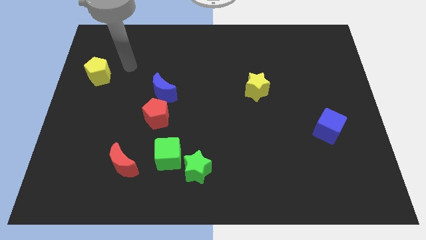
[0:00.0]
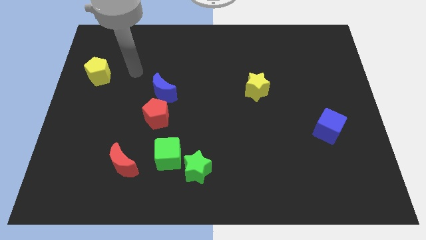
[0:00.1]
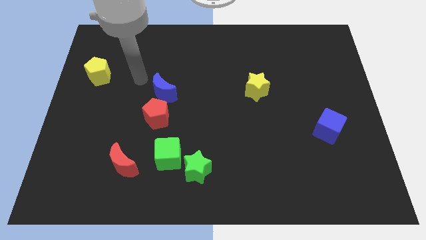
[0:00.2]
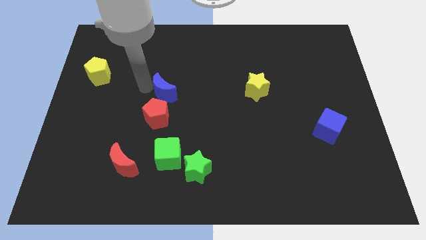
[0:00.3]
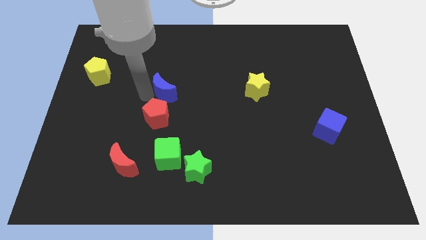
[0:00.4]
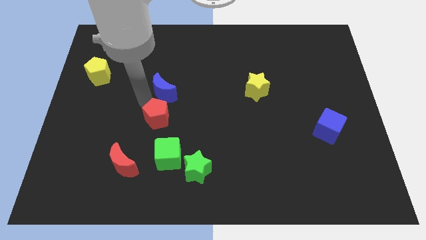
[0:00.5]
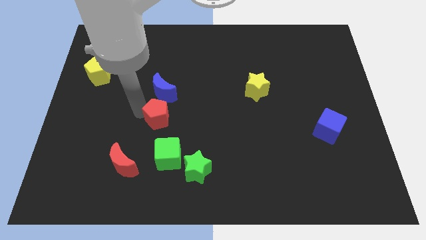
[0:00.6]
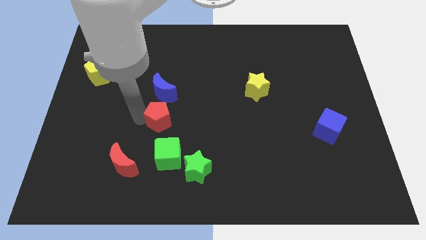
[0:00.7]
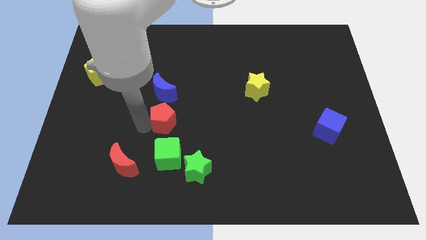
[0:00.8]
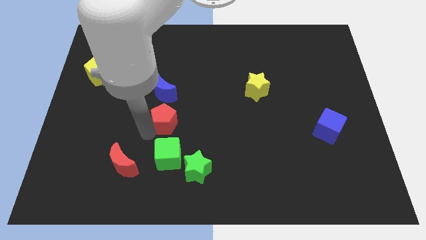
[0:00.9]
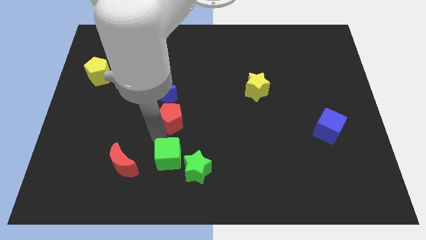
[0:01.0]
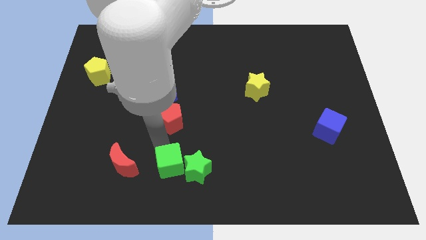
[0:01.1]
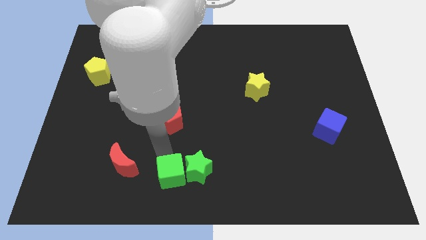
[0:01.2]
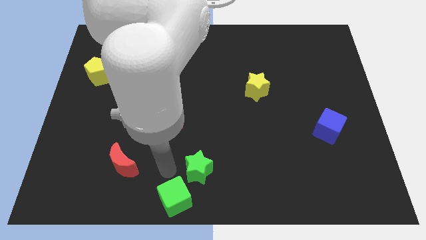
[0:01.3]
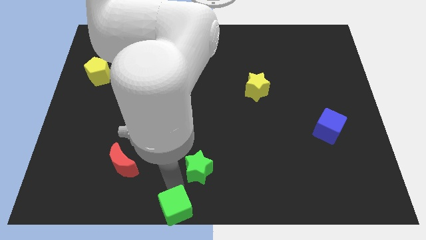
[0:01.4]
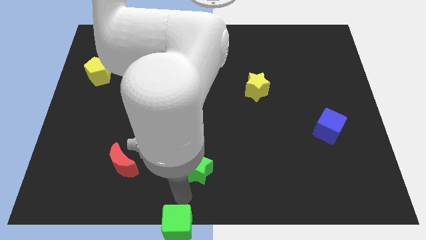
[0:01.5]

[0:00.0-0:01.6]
separate the green star from the green cube

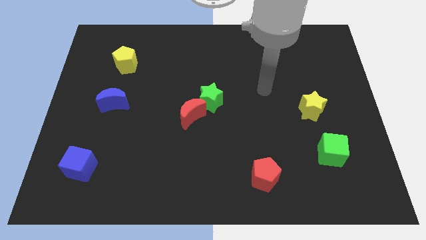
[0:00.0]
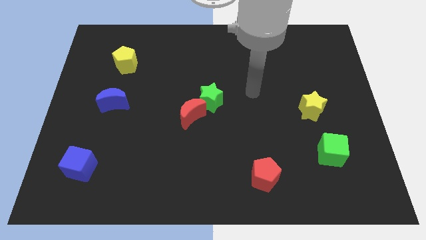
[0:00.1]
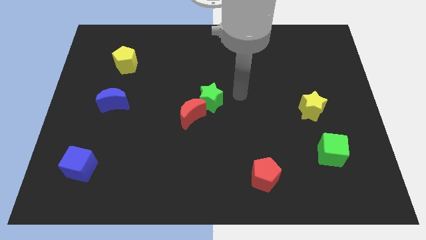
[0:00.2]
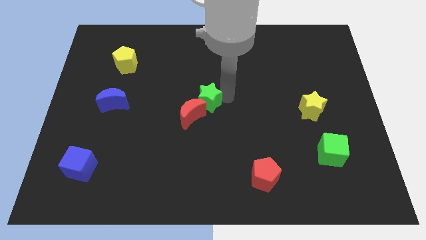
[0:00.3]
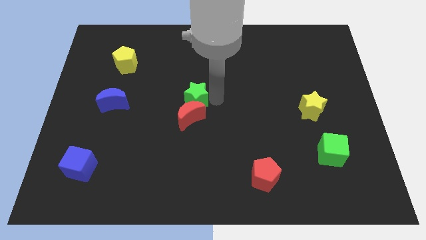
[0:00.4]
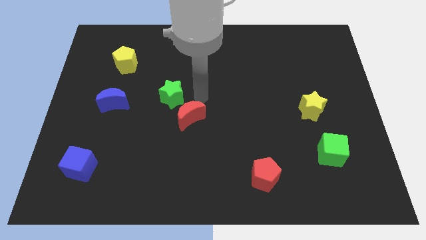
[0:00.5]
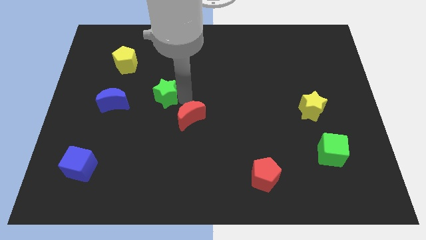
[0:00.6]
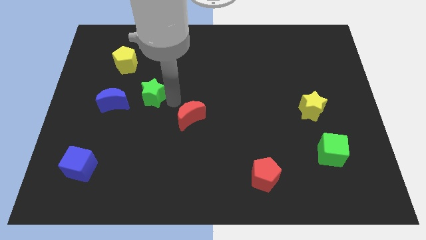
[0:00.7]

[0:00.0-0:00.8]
move the red moon away from the green star

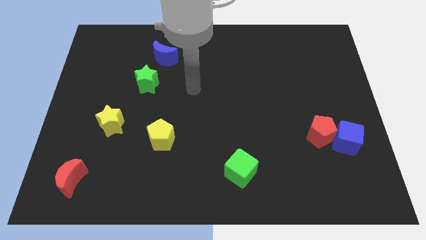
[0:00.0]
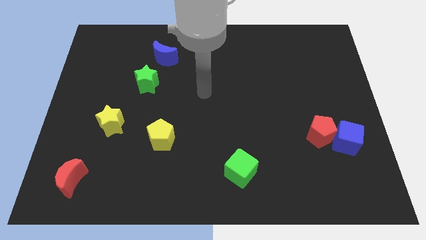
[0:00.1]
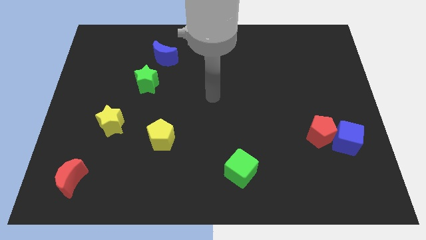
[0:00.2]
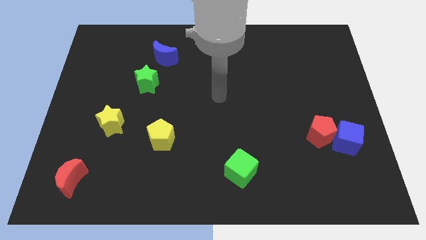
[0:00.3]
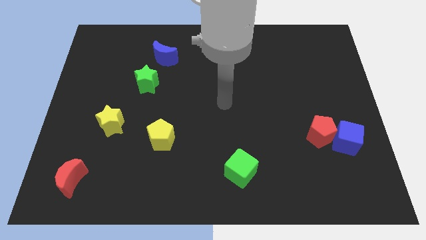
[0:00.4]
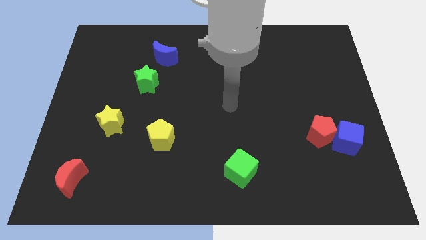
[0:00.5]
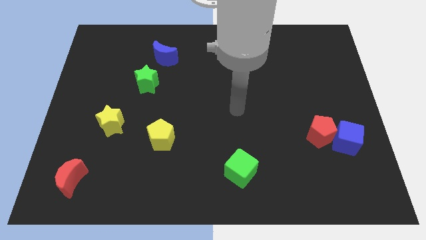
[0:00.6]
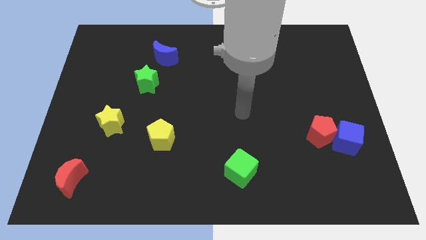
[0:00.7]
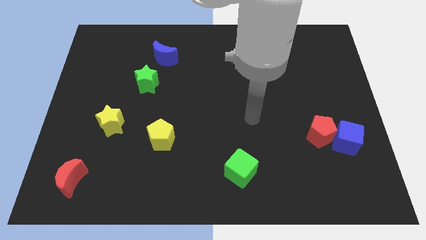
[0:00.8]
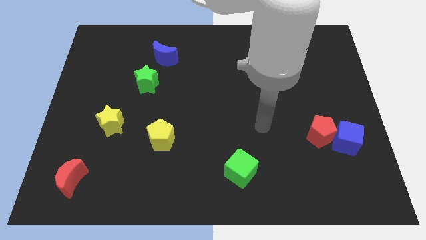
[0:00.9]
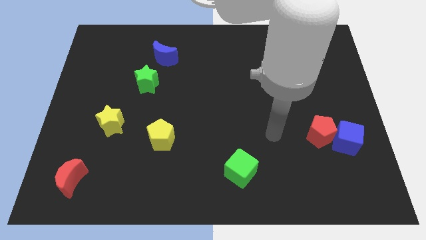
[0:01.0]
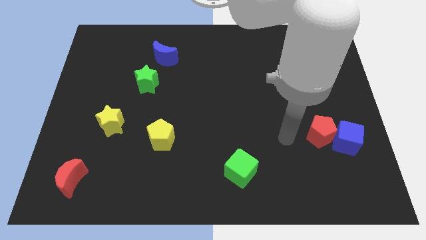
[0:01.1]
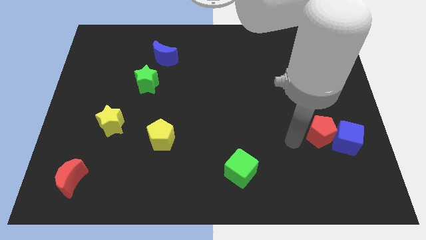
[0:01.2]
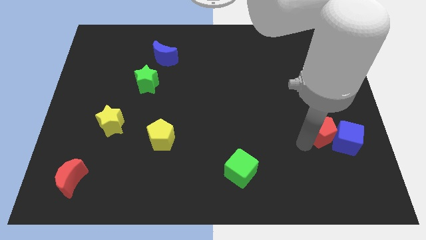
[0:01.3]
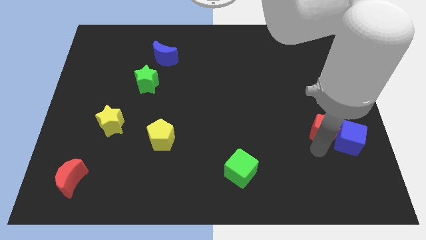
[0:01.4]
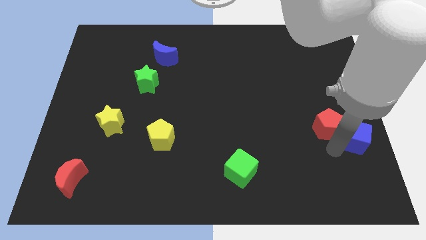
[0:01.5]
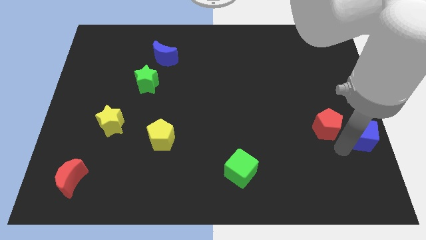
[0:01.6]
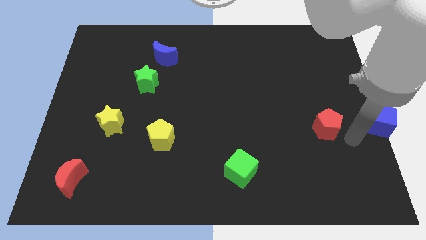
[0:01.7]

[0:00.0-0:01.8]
move the red pentagon away from the blue cube

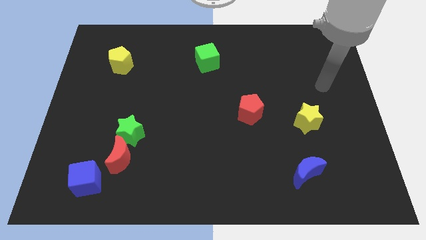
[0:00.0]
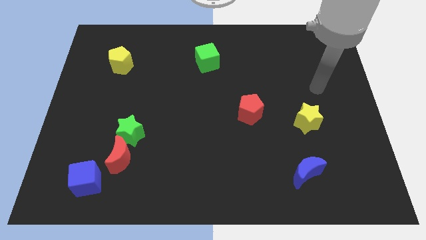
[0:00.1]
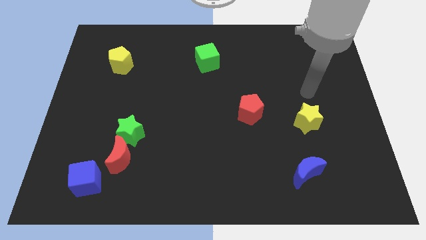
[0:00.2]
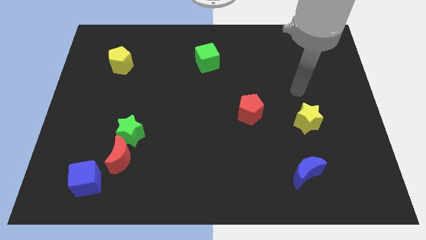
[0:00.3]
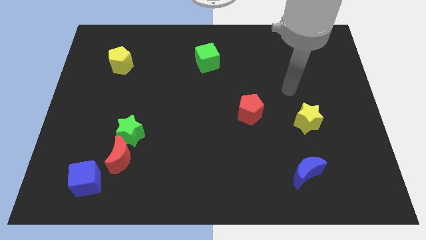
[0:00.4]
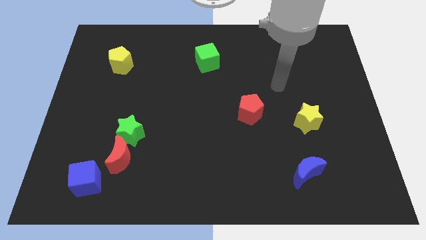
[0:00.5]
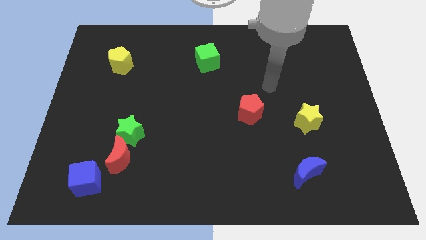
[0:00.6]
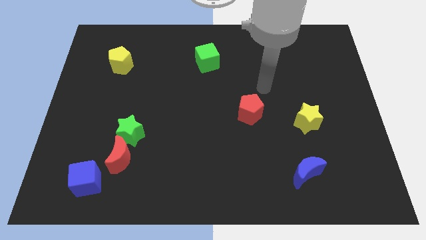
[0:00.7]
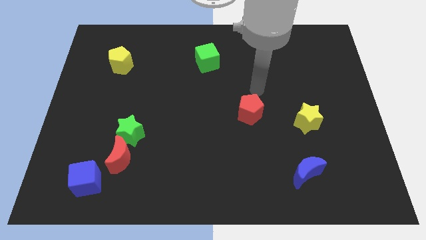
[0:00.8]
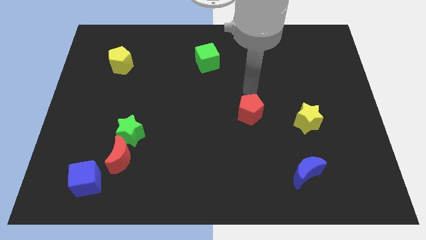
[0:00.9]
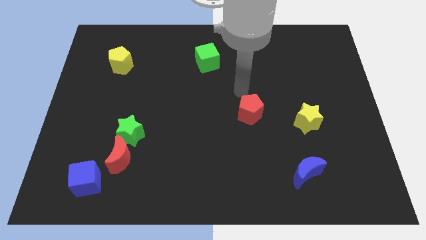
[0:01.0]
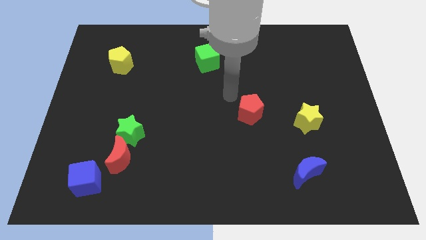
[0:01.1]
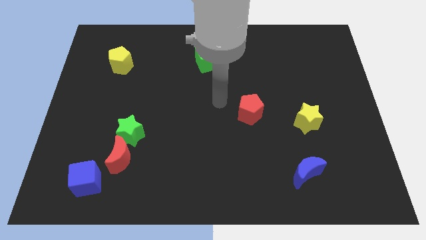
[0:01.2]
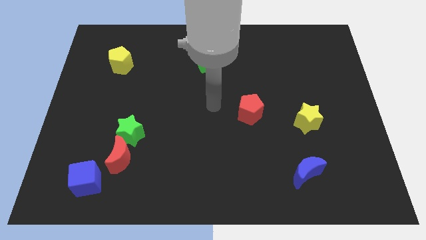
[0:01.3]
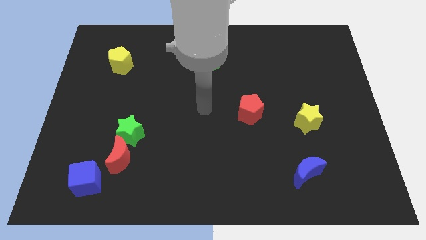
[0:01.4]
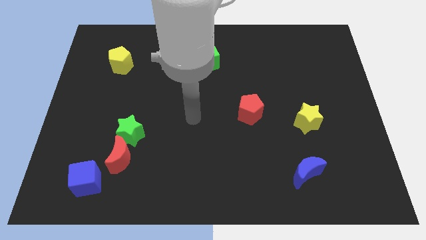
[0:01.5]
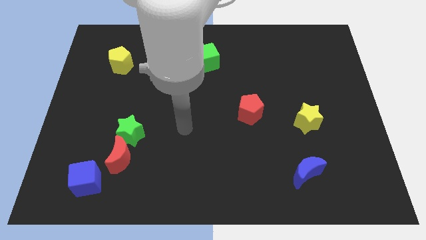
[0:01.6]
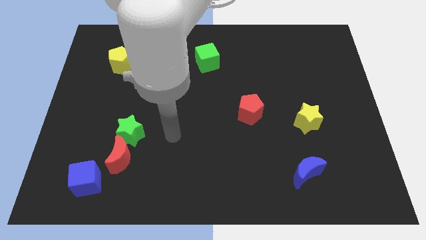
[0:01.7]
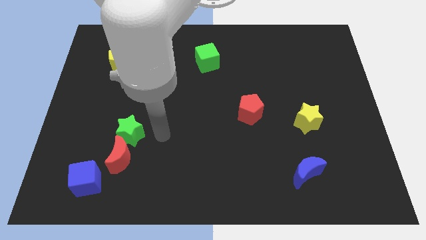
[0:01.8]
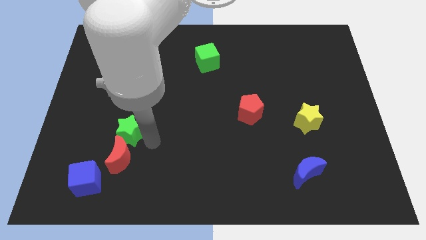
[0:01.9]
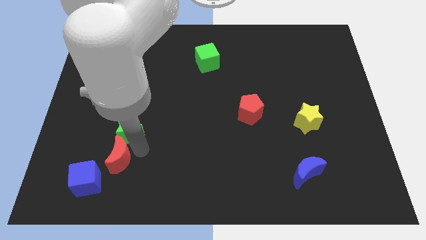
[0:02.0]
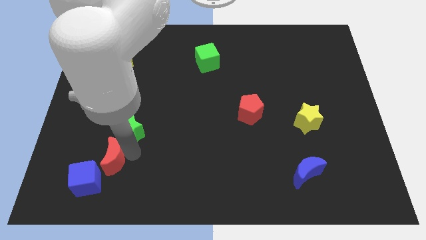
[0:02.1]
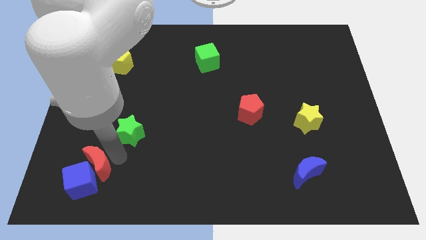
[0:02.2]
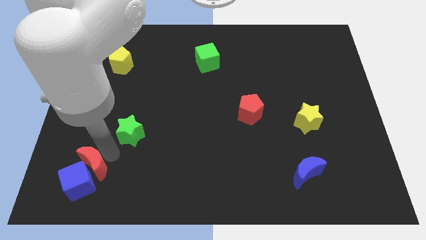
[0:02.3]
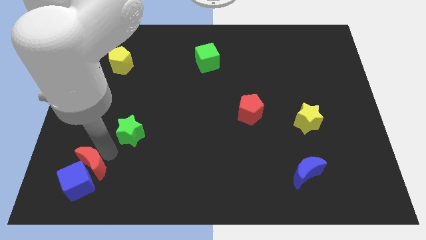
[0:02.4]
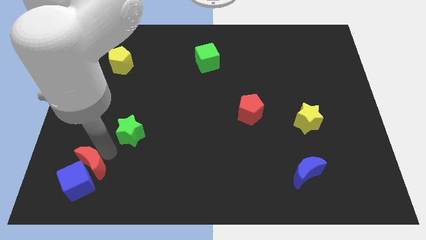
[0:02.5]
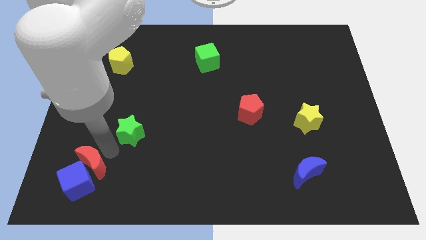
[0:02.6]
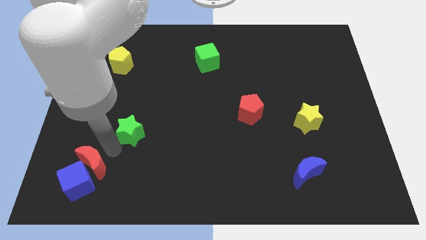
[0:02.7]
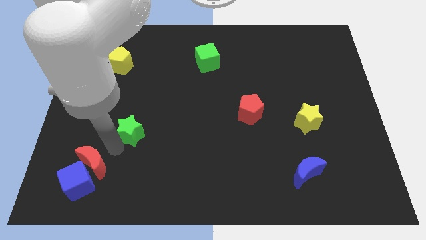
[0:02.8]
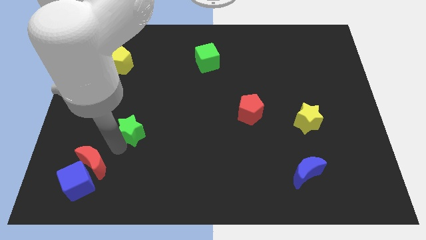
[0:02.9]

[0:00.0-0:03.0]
pull the green star apart from the red moon

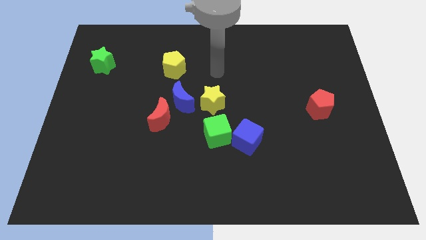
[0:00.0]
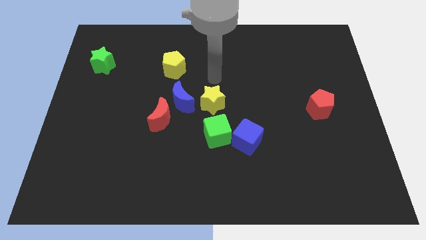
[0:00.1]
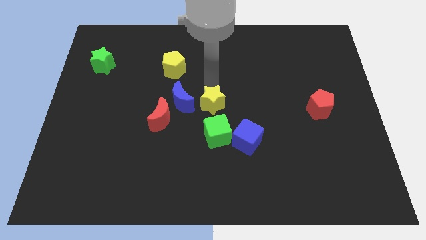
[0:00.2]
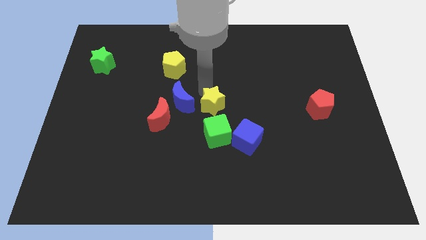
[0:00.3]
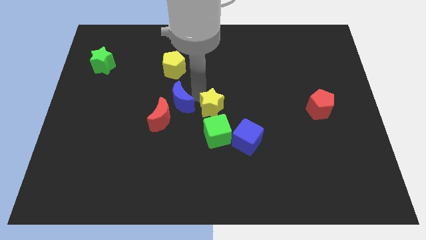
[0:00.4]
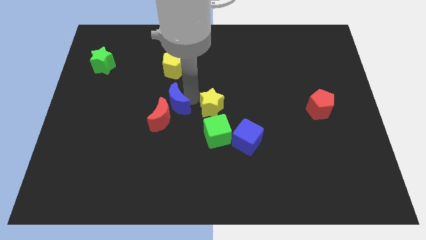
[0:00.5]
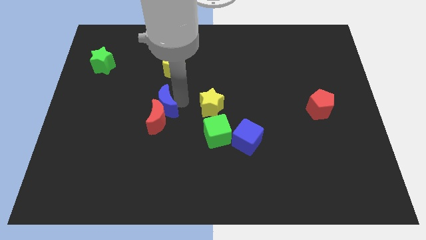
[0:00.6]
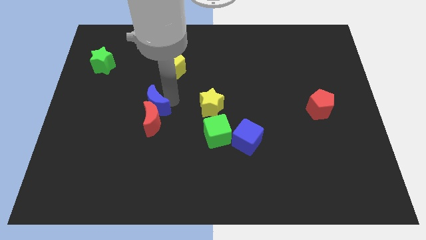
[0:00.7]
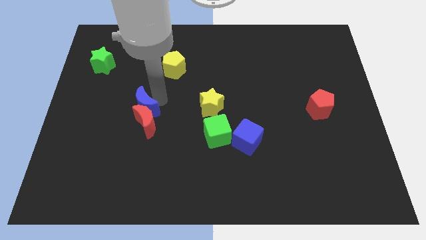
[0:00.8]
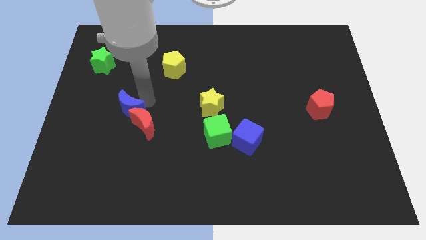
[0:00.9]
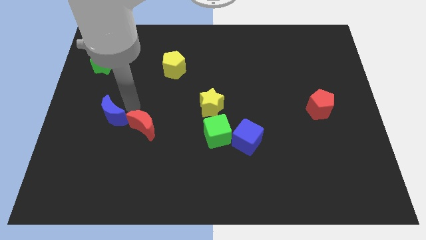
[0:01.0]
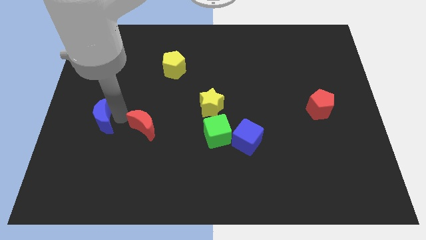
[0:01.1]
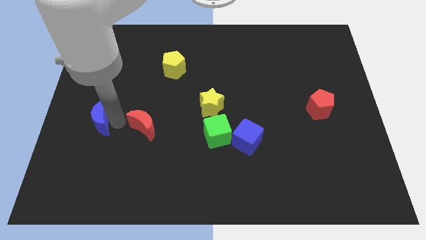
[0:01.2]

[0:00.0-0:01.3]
separate the red moon from the blue moon

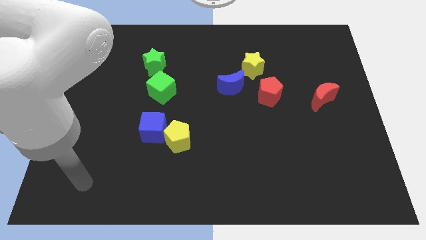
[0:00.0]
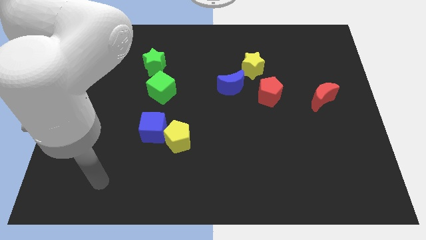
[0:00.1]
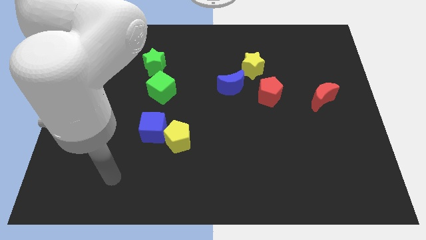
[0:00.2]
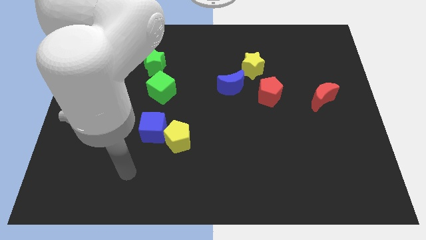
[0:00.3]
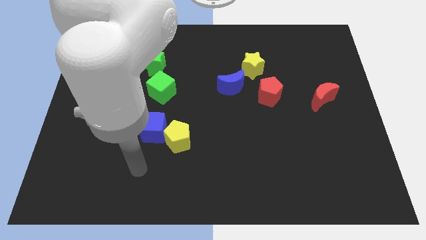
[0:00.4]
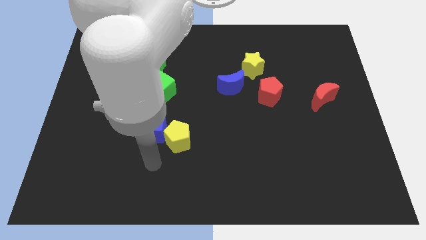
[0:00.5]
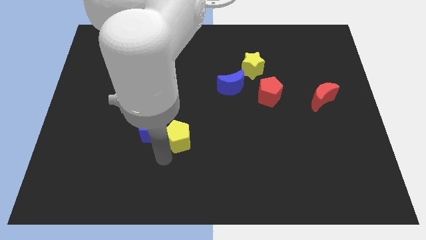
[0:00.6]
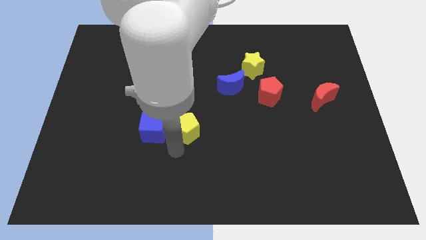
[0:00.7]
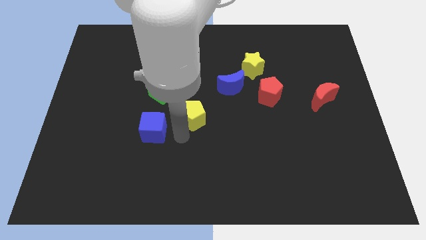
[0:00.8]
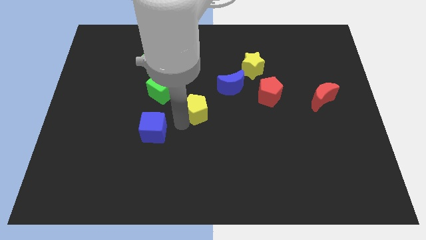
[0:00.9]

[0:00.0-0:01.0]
pull the blue cube apart from the yellow pentagon
